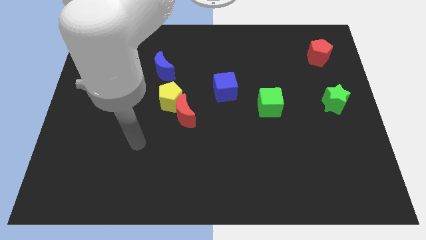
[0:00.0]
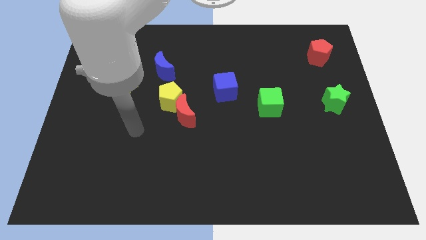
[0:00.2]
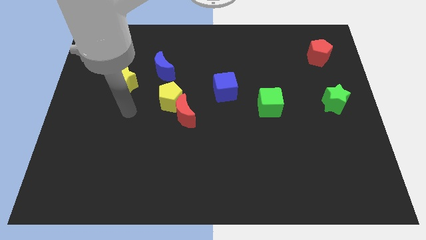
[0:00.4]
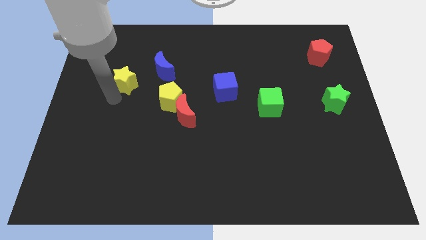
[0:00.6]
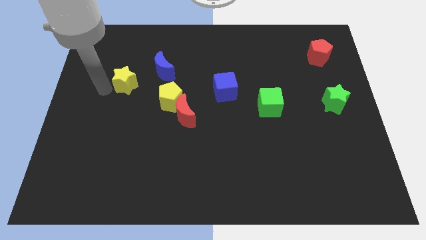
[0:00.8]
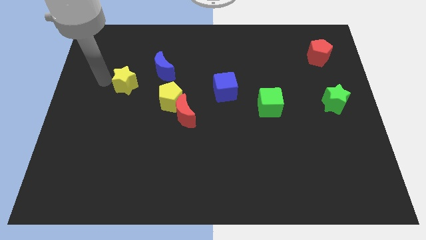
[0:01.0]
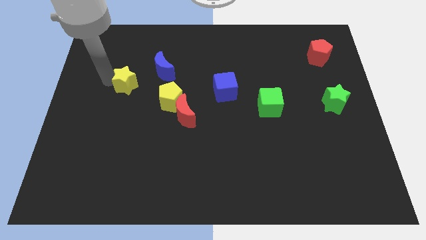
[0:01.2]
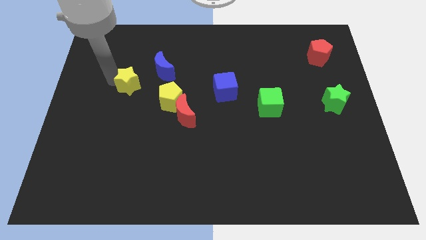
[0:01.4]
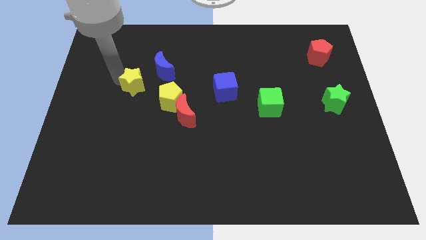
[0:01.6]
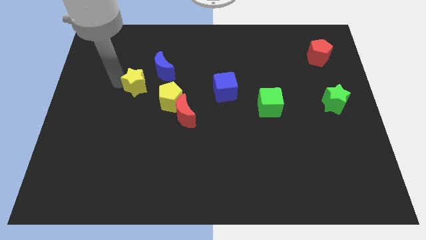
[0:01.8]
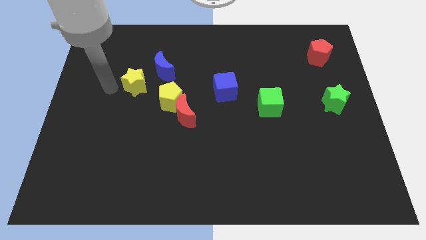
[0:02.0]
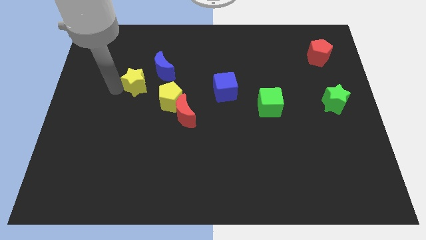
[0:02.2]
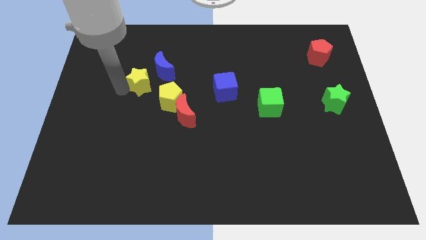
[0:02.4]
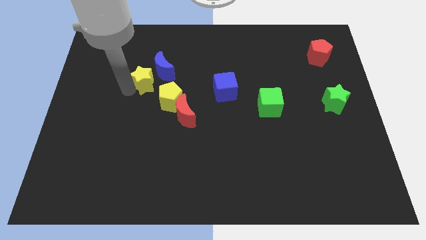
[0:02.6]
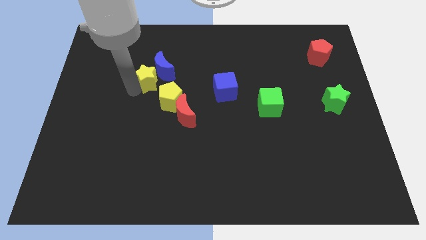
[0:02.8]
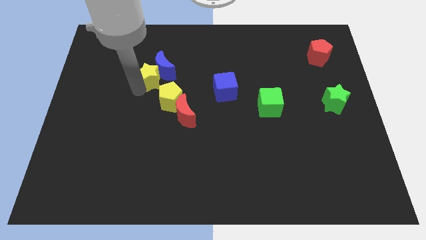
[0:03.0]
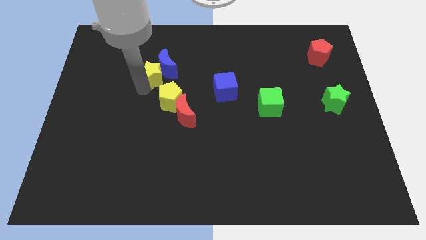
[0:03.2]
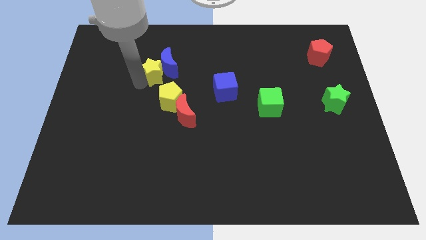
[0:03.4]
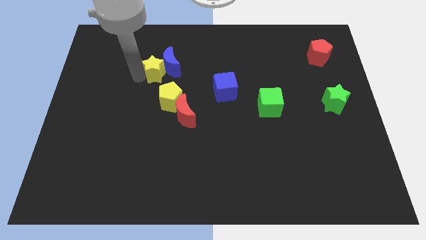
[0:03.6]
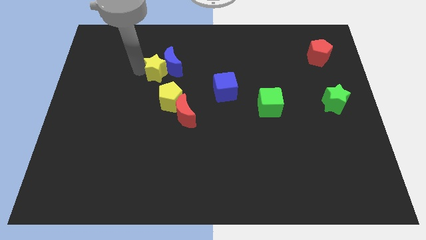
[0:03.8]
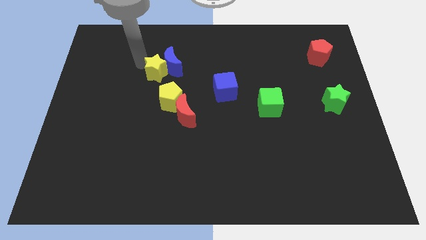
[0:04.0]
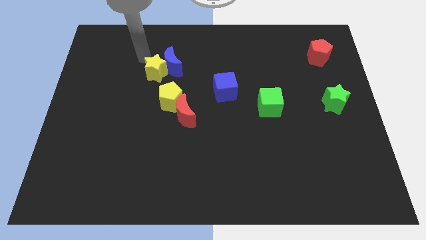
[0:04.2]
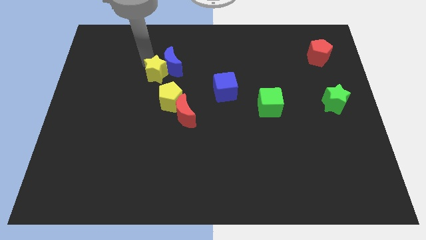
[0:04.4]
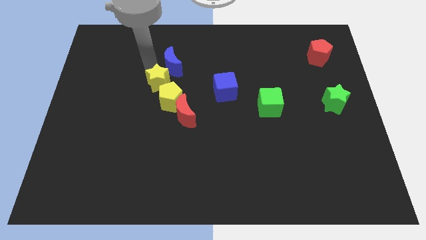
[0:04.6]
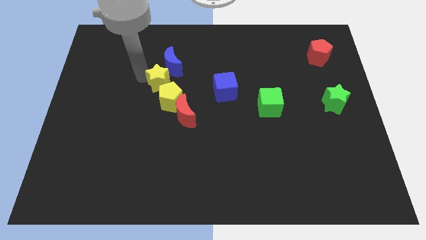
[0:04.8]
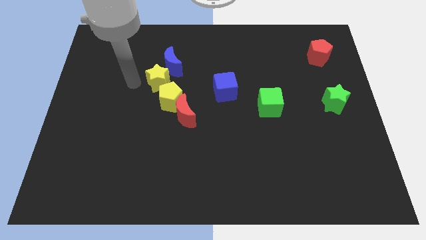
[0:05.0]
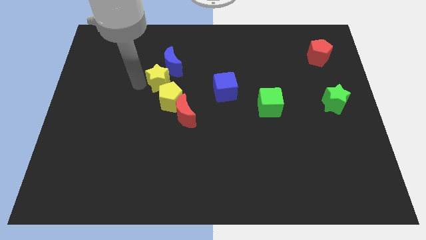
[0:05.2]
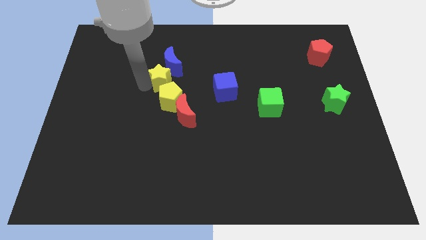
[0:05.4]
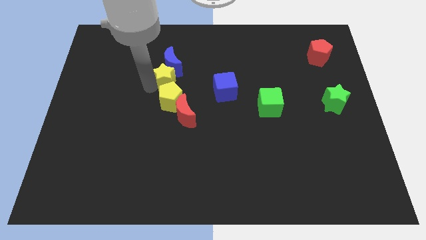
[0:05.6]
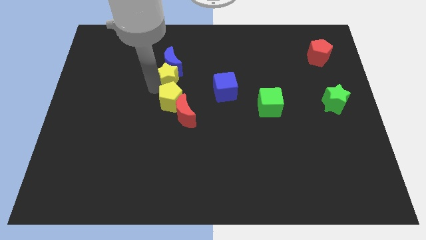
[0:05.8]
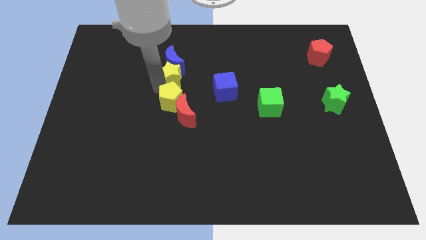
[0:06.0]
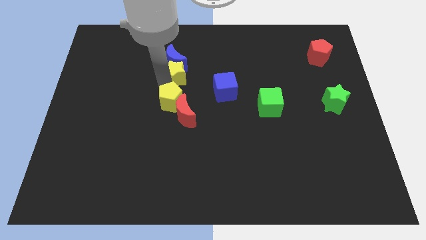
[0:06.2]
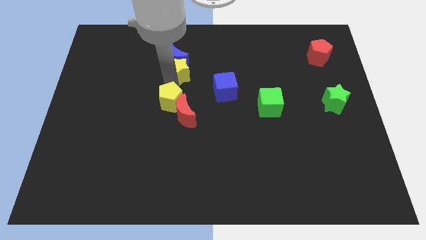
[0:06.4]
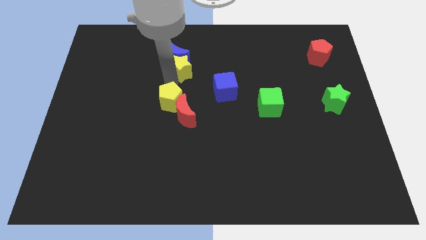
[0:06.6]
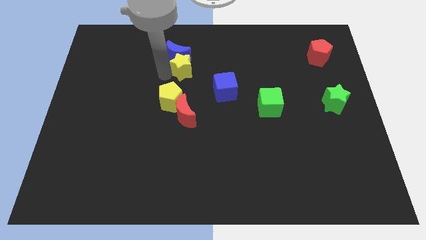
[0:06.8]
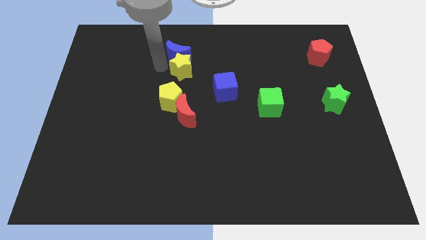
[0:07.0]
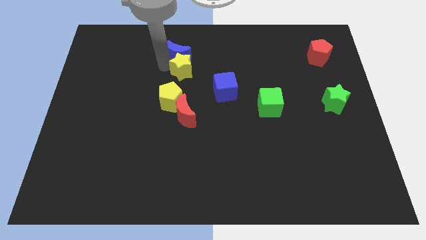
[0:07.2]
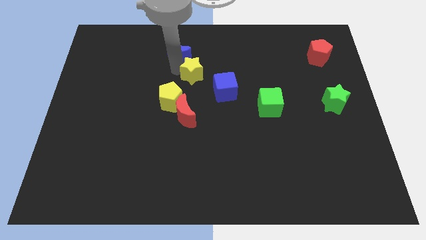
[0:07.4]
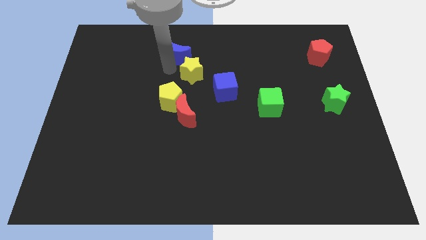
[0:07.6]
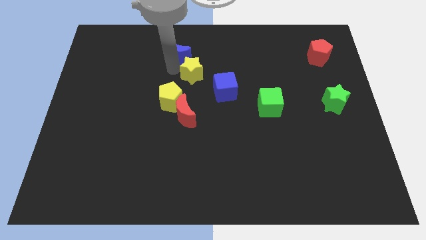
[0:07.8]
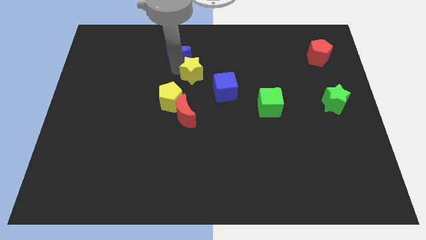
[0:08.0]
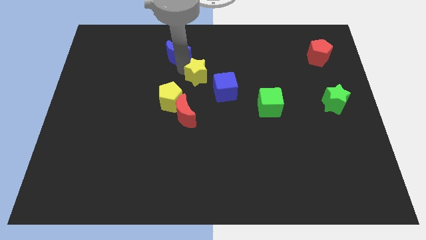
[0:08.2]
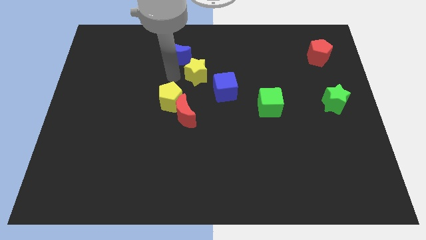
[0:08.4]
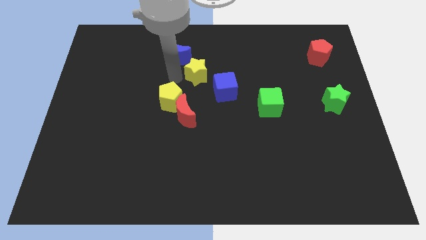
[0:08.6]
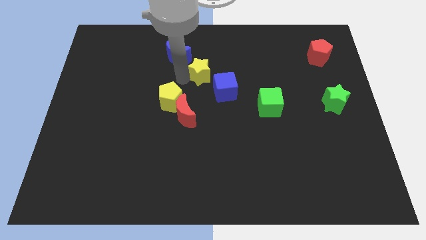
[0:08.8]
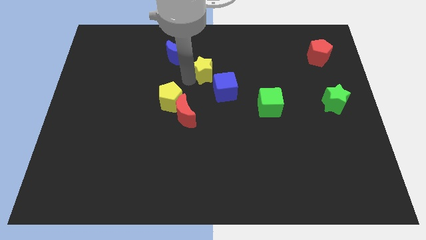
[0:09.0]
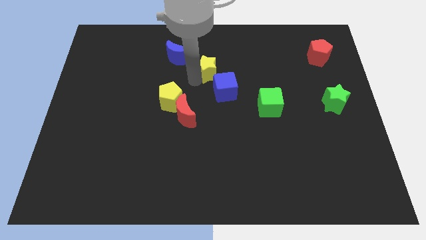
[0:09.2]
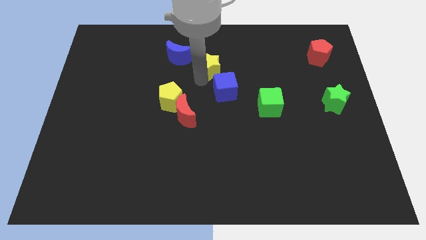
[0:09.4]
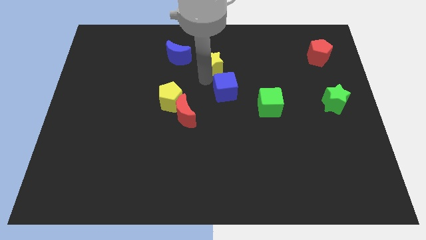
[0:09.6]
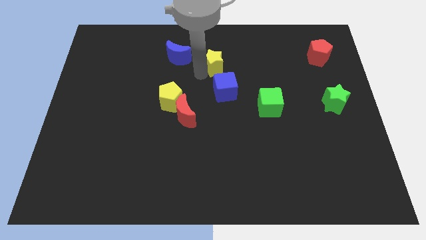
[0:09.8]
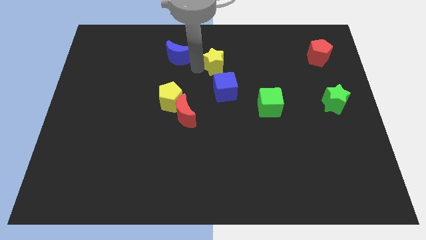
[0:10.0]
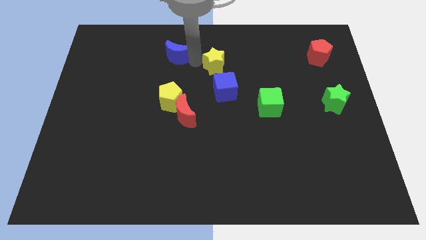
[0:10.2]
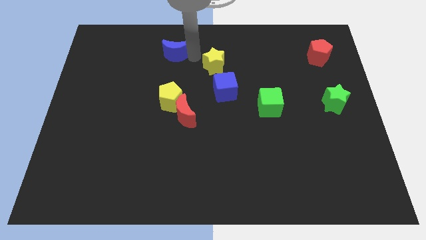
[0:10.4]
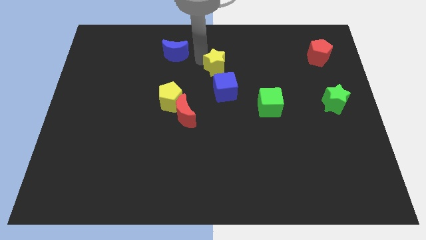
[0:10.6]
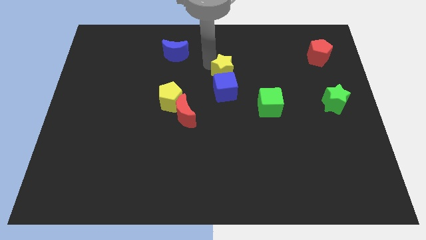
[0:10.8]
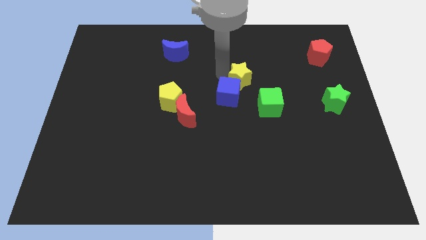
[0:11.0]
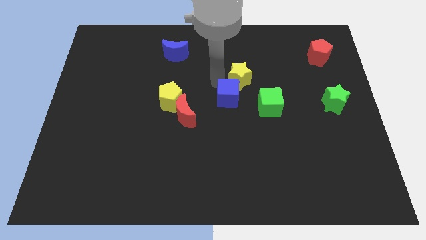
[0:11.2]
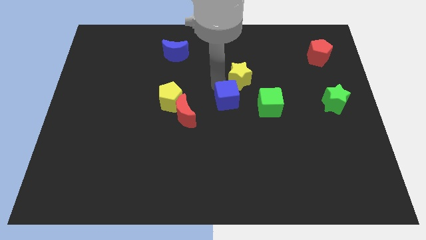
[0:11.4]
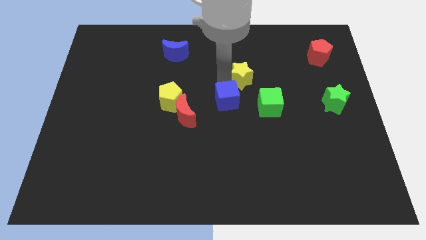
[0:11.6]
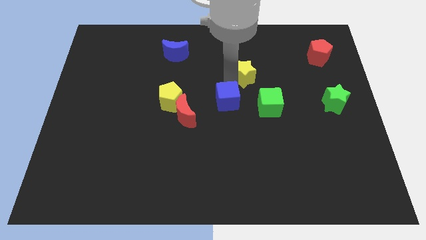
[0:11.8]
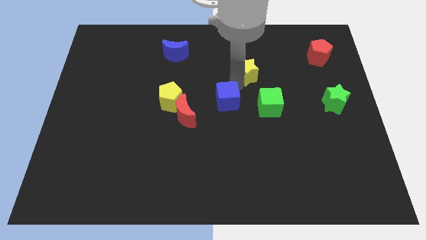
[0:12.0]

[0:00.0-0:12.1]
put the yellow star above the green cube

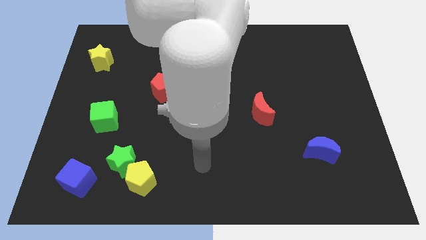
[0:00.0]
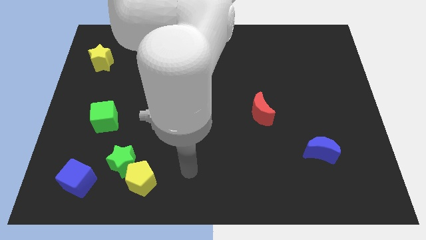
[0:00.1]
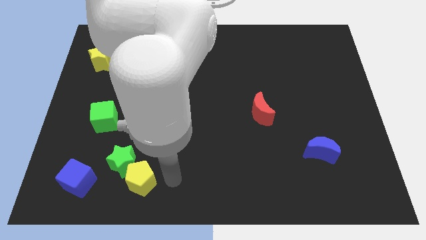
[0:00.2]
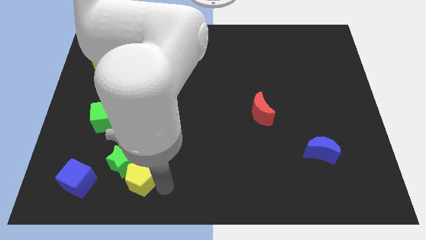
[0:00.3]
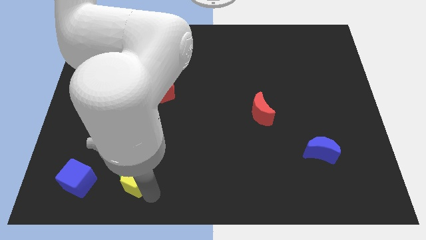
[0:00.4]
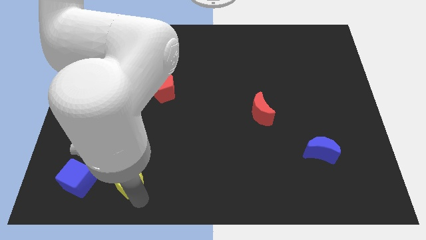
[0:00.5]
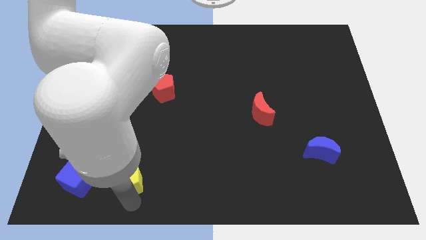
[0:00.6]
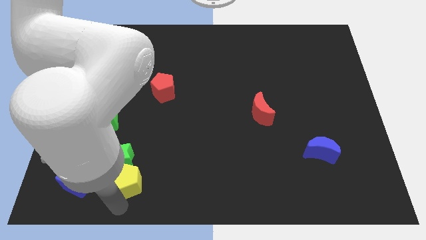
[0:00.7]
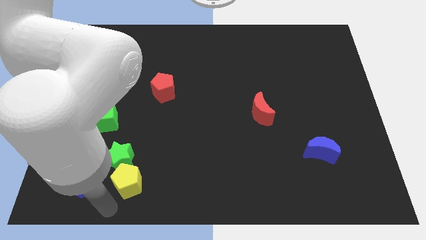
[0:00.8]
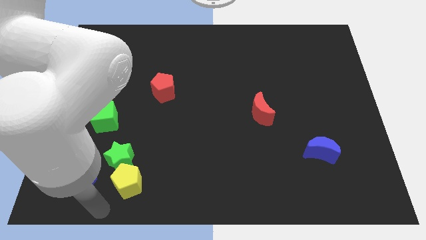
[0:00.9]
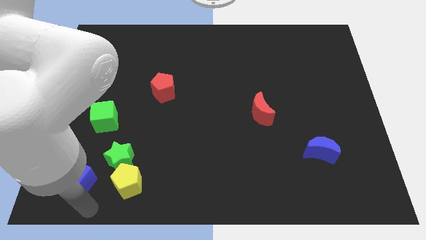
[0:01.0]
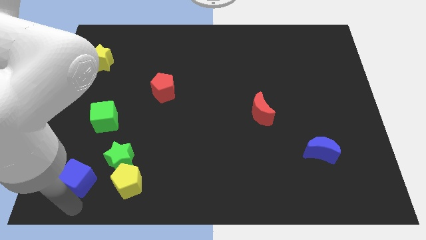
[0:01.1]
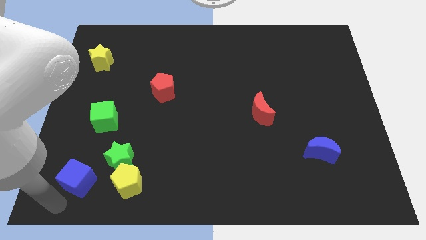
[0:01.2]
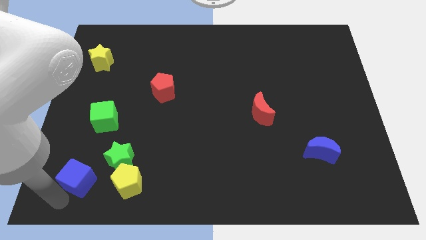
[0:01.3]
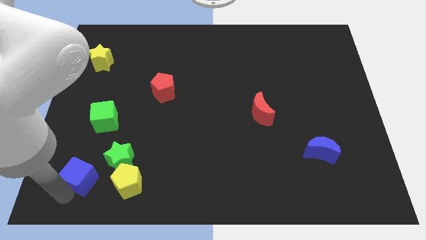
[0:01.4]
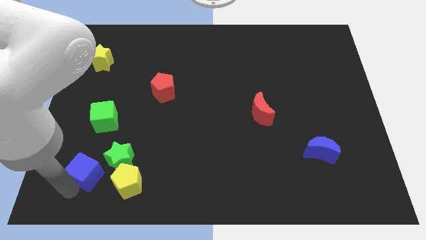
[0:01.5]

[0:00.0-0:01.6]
put the blue cube diagonally up and to the left of the yellow pentagon
